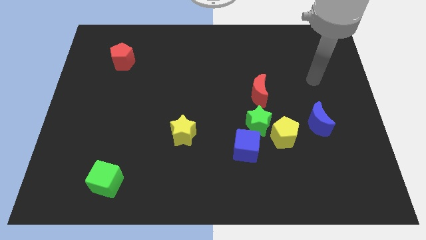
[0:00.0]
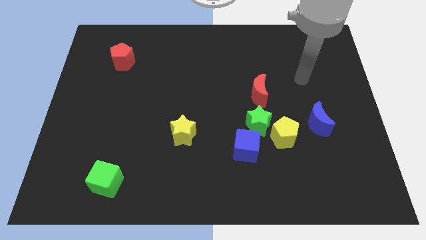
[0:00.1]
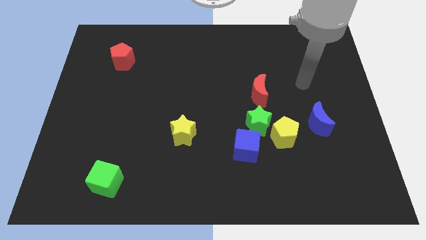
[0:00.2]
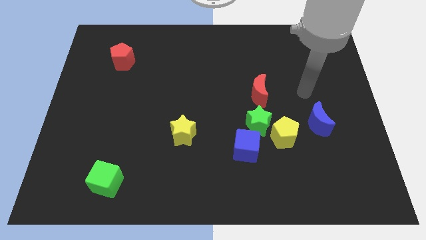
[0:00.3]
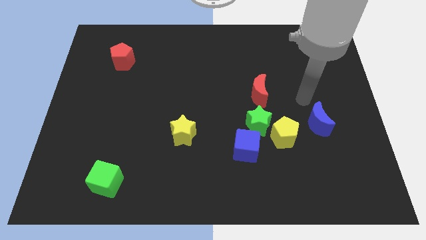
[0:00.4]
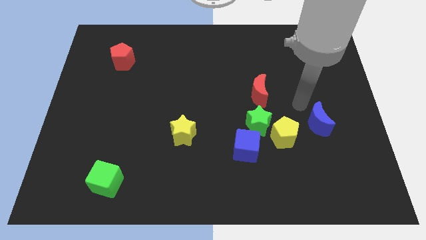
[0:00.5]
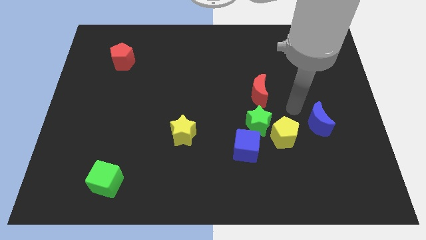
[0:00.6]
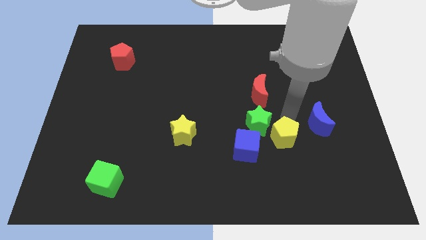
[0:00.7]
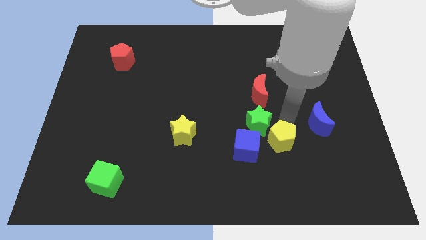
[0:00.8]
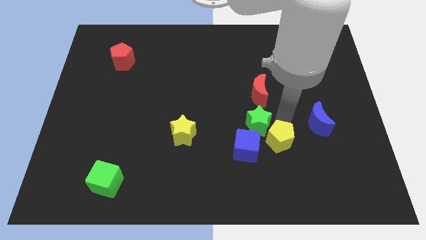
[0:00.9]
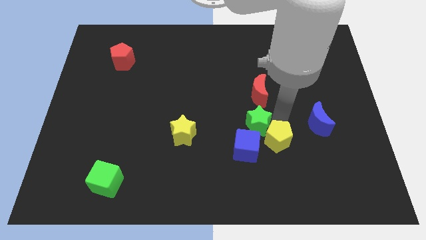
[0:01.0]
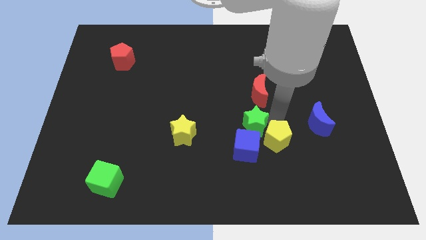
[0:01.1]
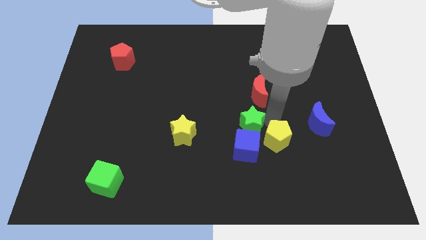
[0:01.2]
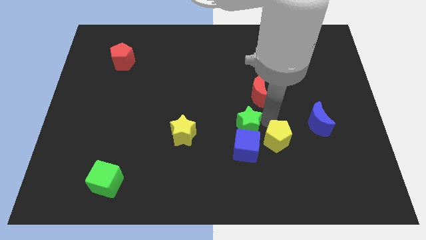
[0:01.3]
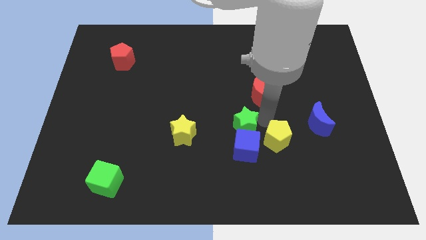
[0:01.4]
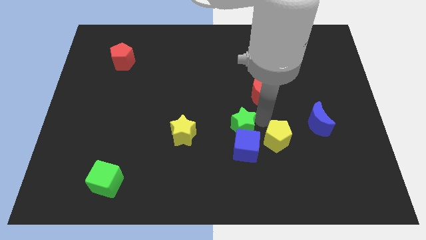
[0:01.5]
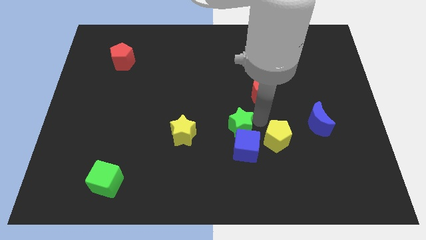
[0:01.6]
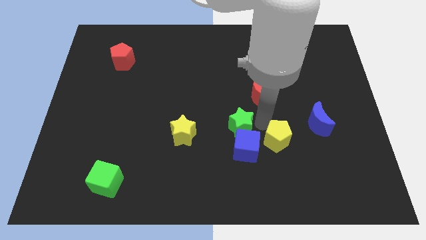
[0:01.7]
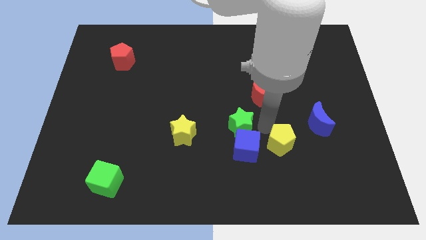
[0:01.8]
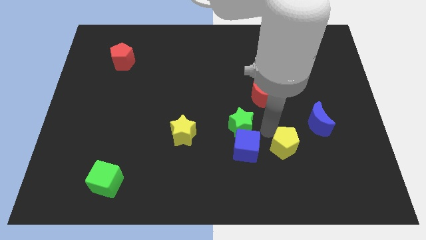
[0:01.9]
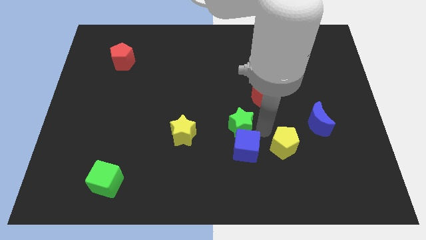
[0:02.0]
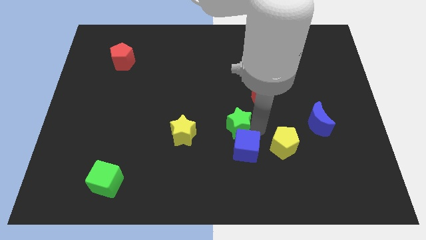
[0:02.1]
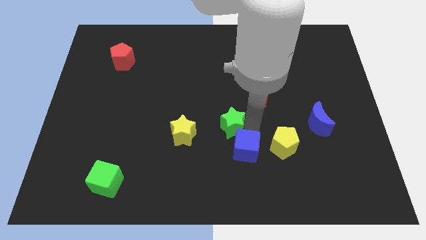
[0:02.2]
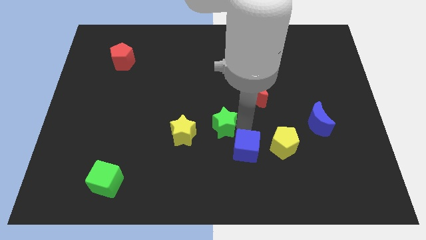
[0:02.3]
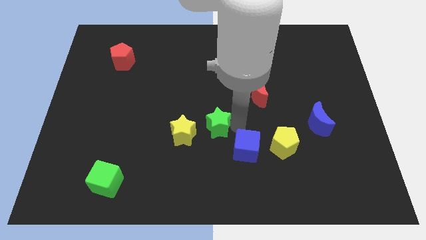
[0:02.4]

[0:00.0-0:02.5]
separate the green star from the yellow pentagon, blue cube, and red moon

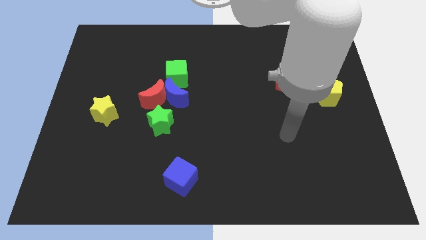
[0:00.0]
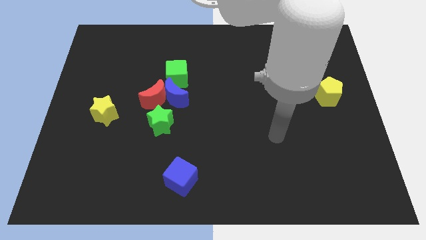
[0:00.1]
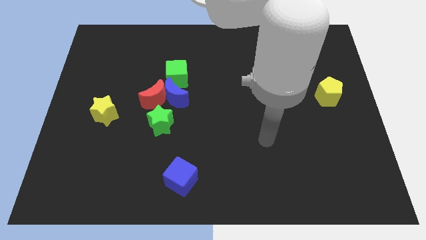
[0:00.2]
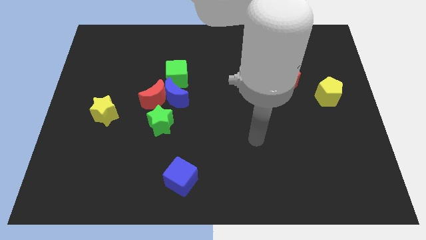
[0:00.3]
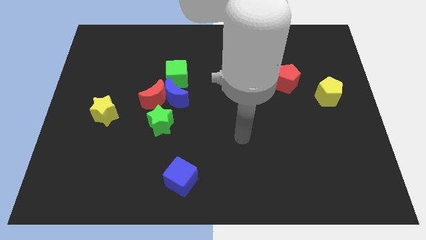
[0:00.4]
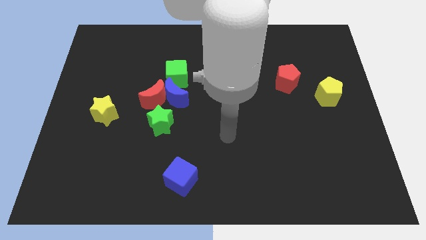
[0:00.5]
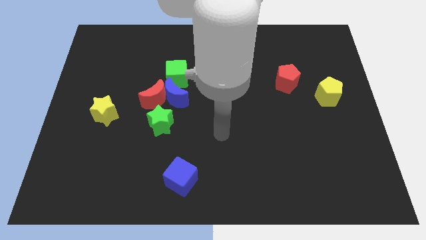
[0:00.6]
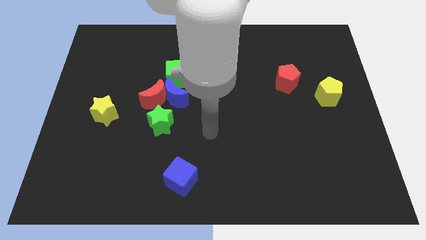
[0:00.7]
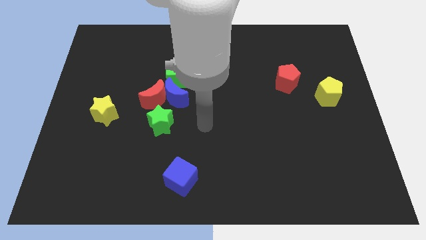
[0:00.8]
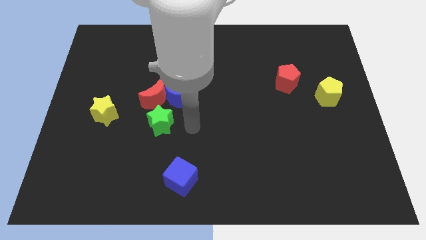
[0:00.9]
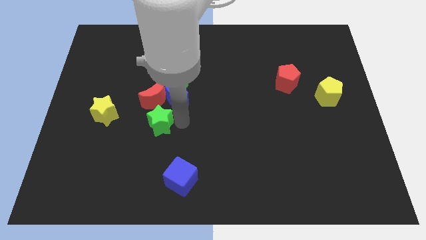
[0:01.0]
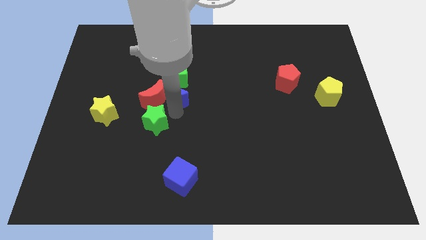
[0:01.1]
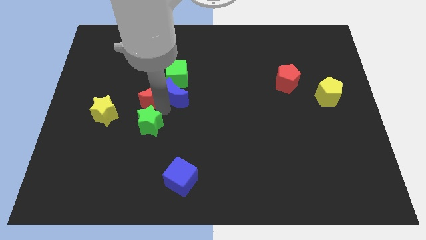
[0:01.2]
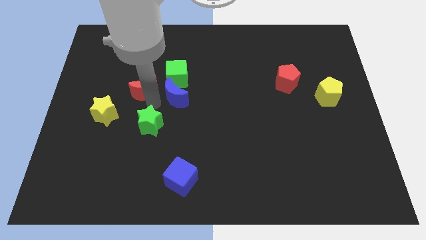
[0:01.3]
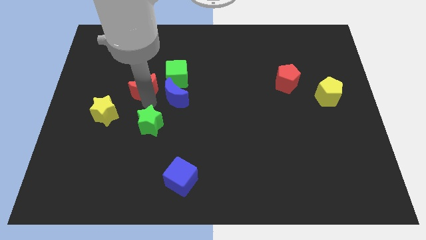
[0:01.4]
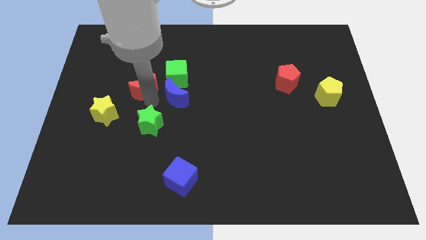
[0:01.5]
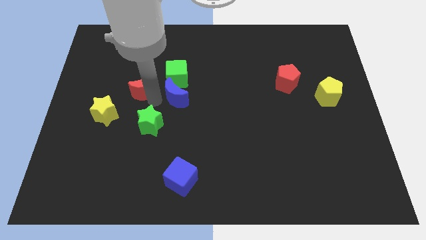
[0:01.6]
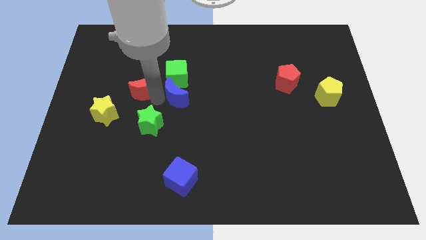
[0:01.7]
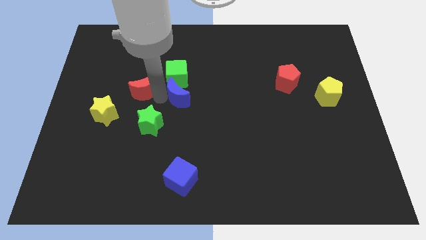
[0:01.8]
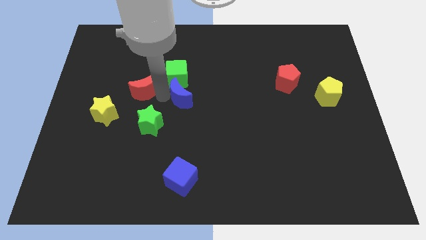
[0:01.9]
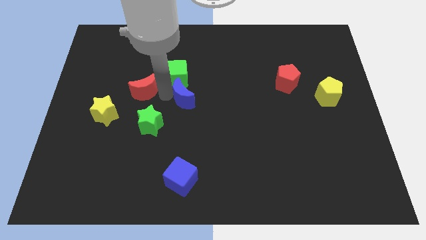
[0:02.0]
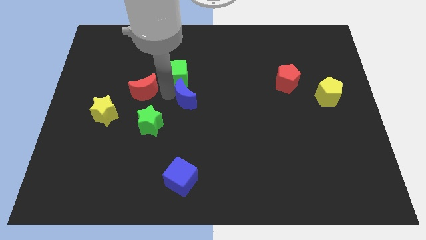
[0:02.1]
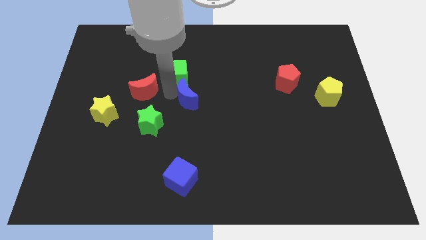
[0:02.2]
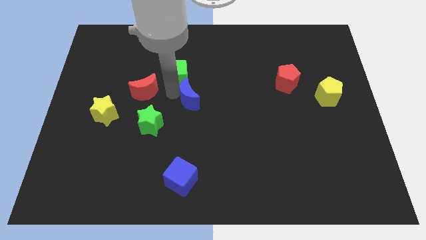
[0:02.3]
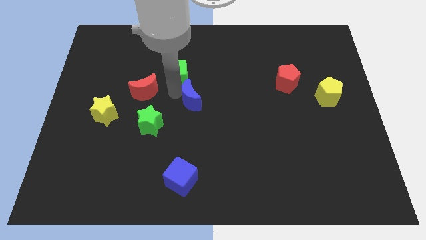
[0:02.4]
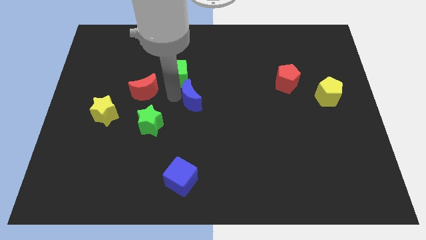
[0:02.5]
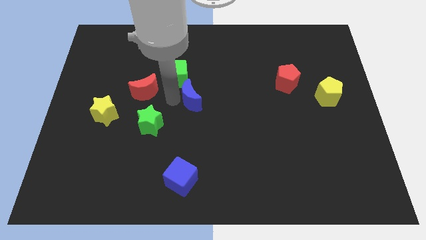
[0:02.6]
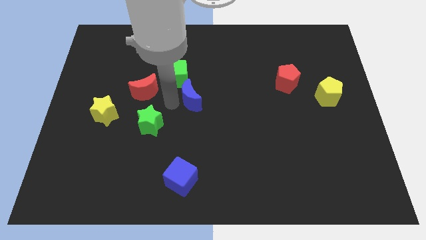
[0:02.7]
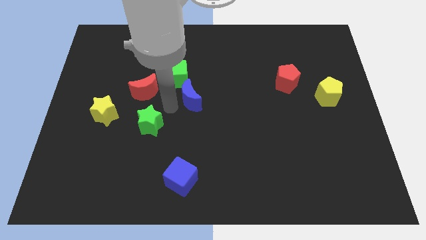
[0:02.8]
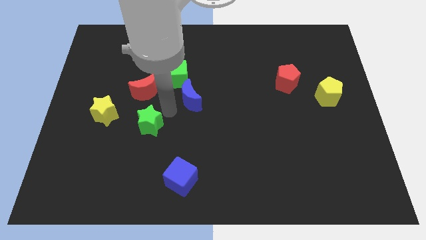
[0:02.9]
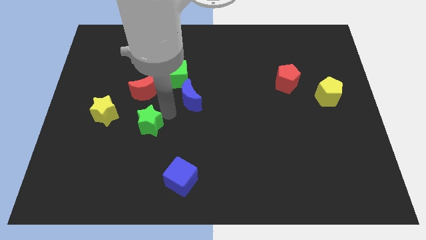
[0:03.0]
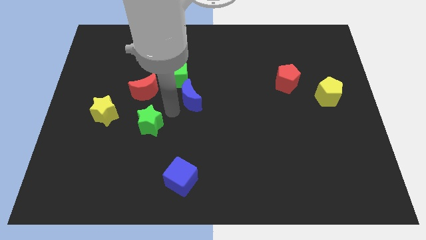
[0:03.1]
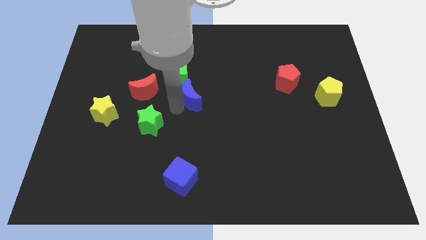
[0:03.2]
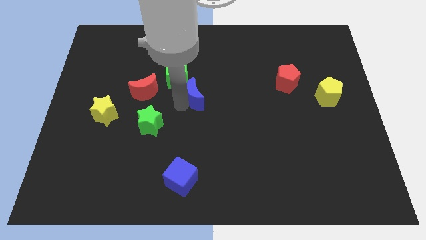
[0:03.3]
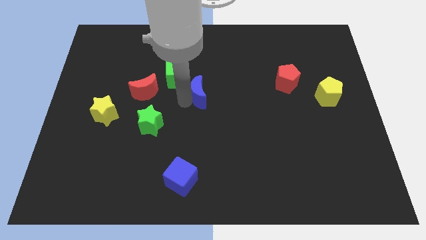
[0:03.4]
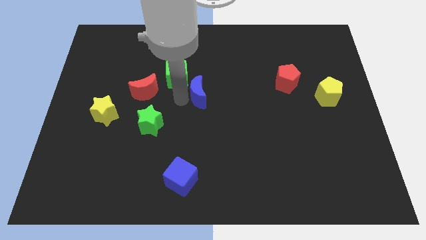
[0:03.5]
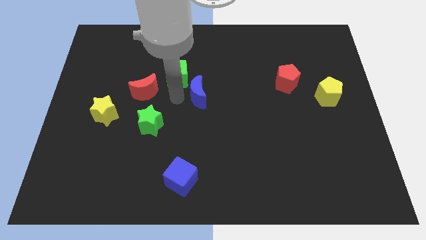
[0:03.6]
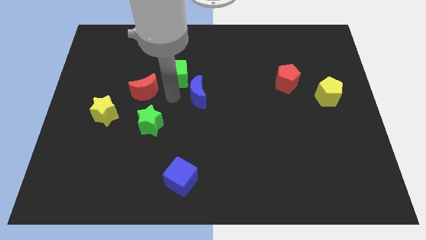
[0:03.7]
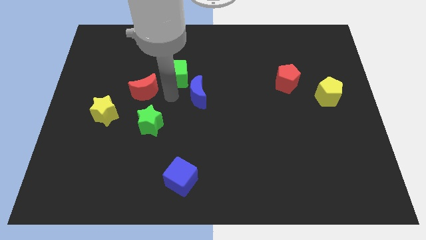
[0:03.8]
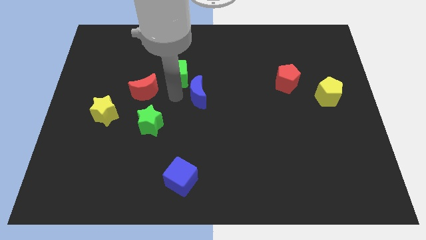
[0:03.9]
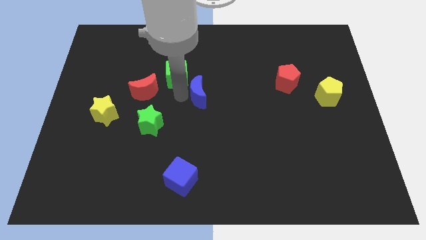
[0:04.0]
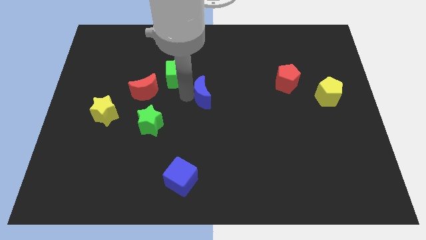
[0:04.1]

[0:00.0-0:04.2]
pull the blue moon apart from the red moon, green cube, and green star

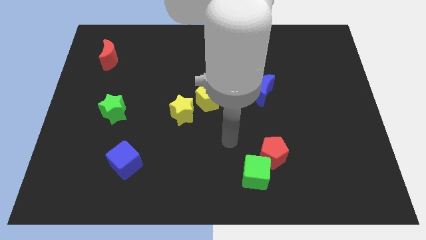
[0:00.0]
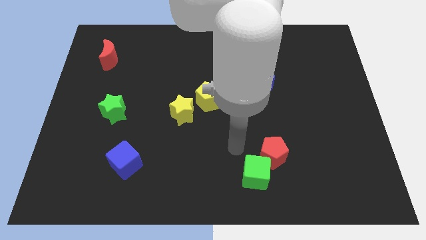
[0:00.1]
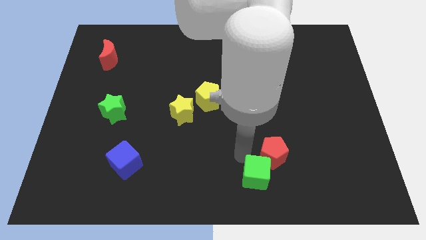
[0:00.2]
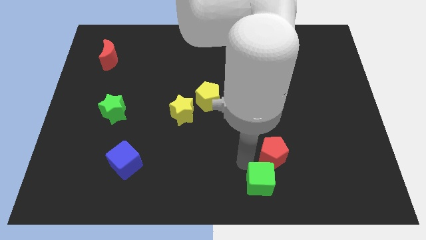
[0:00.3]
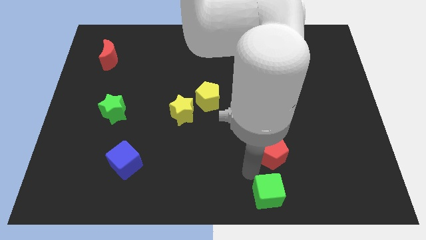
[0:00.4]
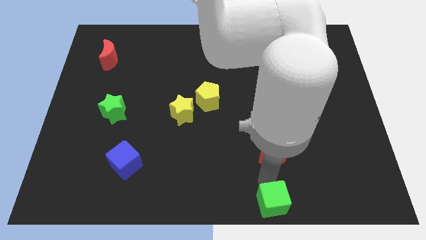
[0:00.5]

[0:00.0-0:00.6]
separate the red pentagon from the green cube

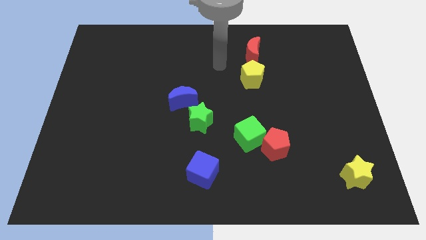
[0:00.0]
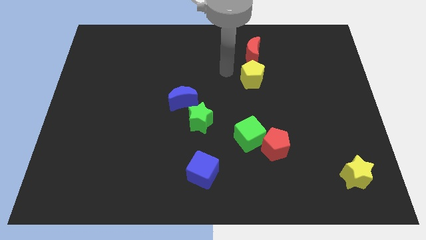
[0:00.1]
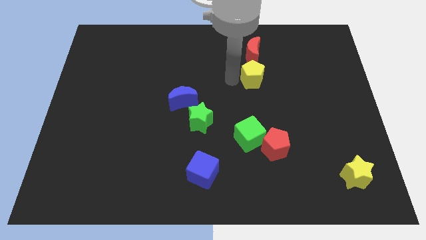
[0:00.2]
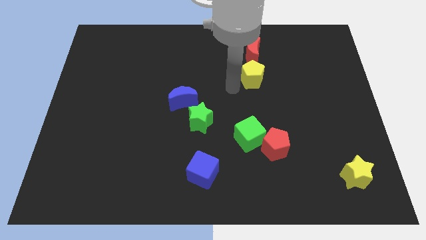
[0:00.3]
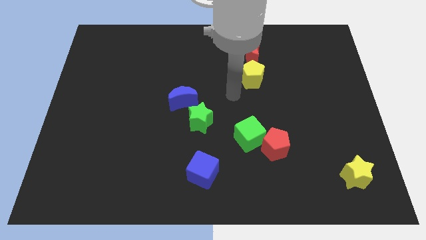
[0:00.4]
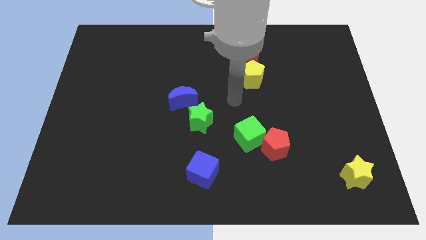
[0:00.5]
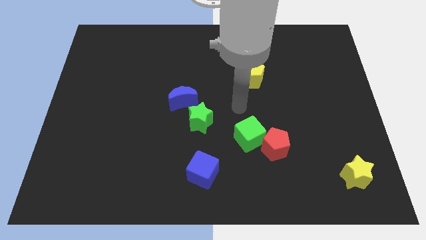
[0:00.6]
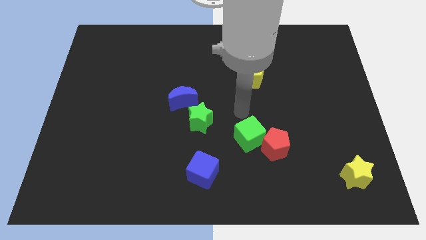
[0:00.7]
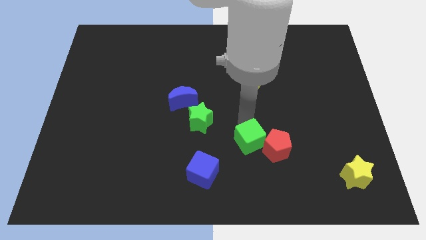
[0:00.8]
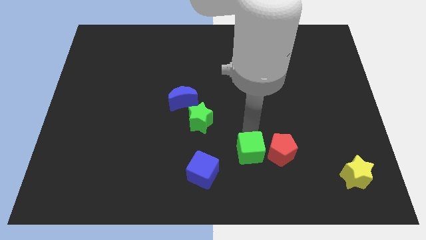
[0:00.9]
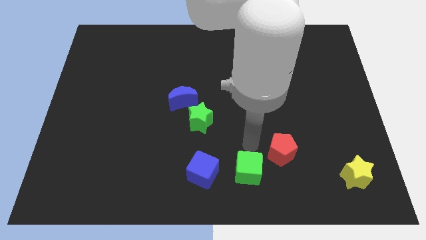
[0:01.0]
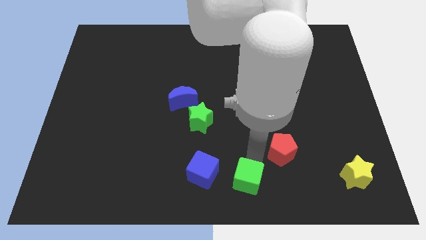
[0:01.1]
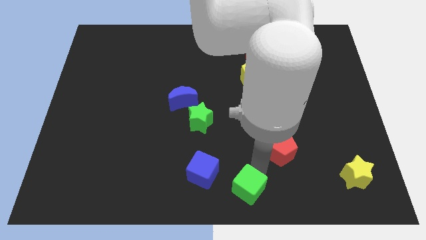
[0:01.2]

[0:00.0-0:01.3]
move the red pentagon away from the green cube

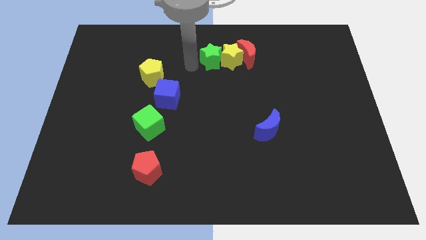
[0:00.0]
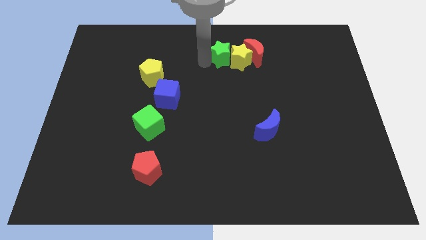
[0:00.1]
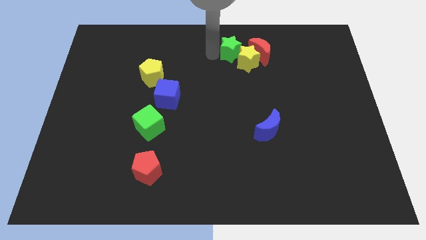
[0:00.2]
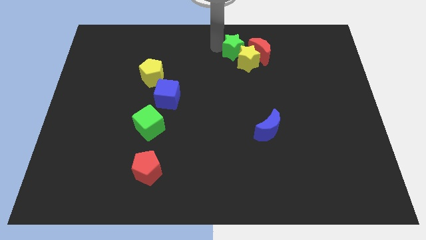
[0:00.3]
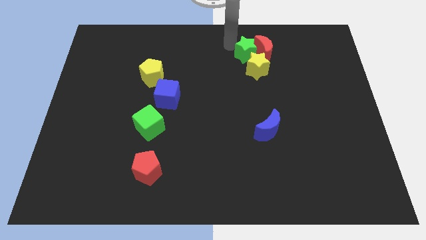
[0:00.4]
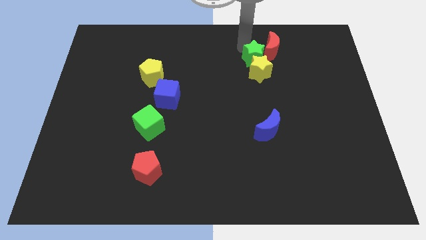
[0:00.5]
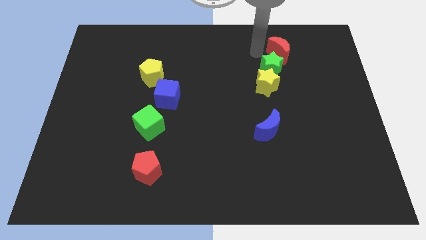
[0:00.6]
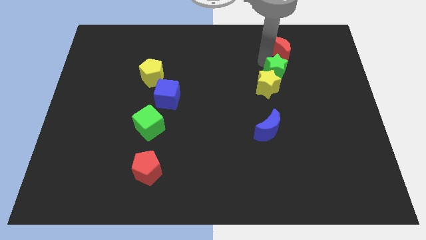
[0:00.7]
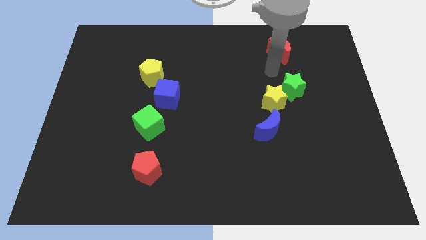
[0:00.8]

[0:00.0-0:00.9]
separate the yellow star from the red moon and green star
